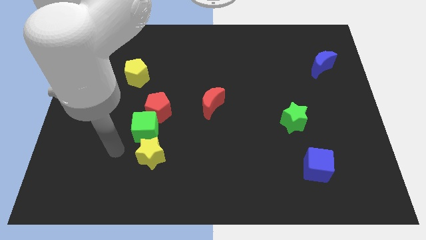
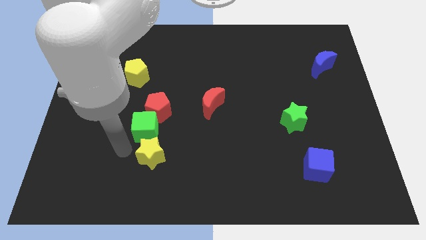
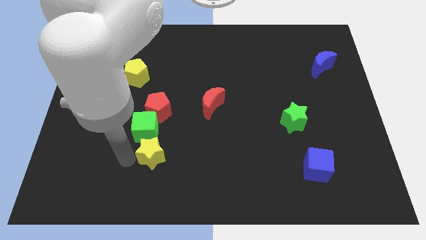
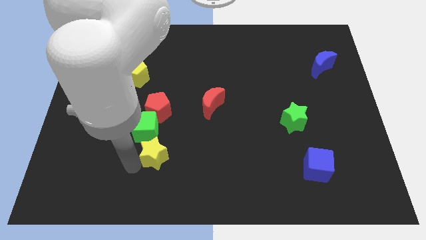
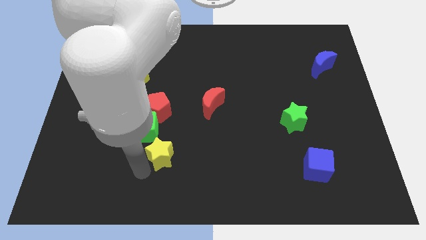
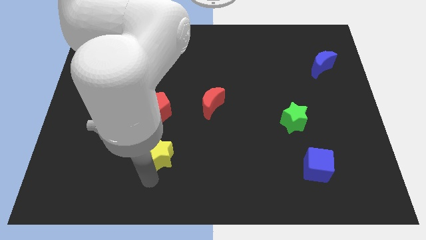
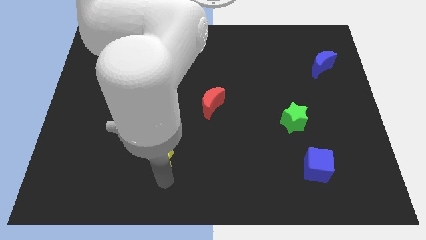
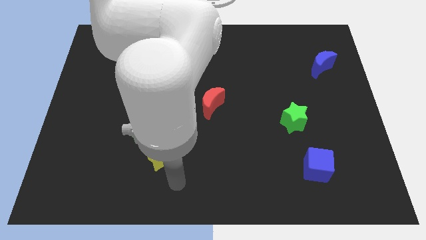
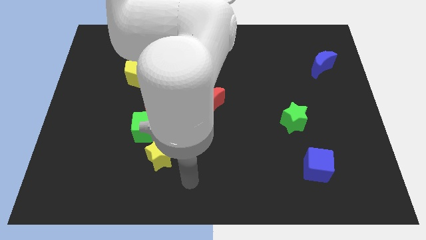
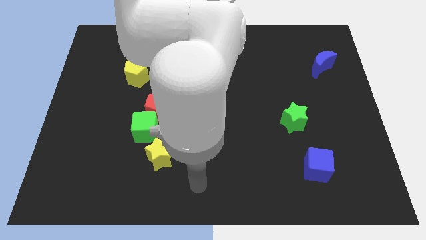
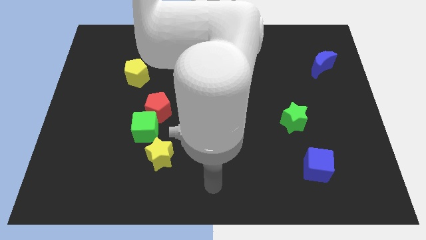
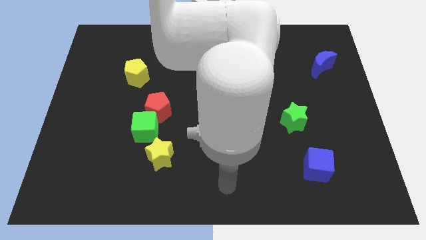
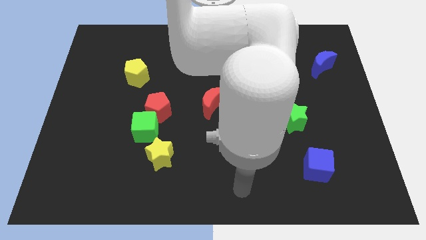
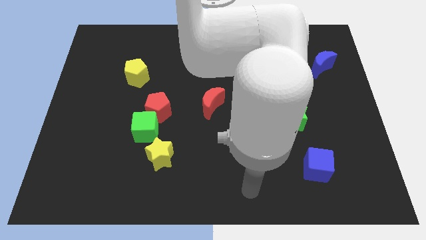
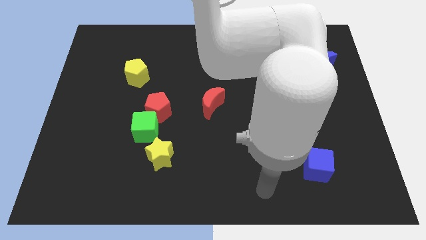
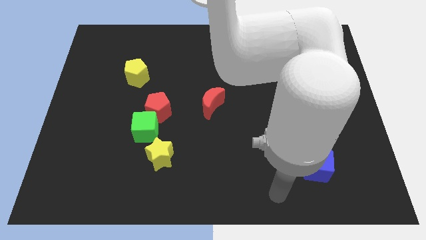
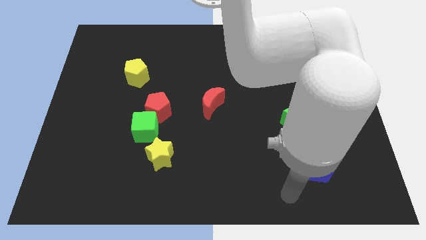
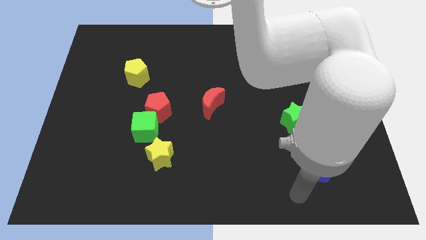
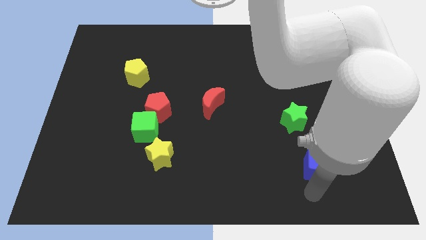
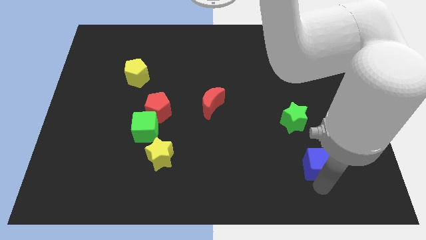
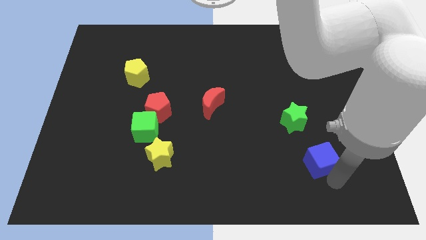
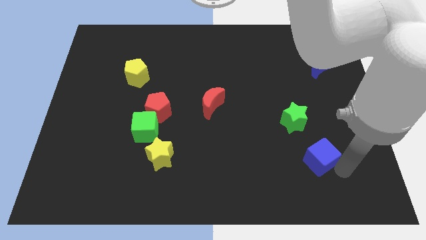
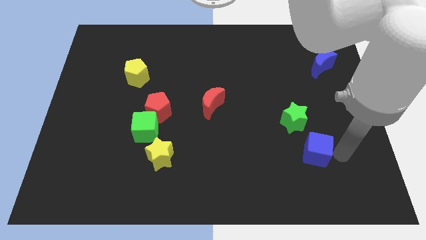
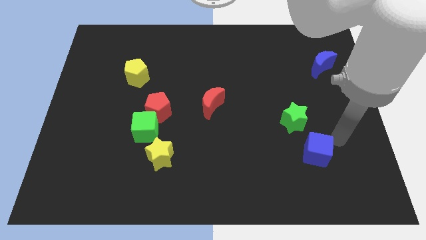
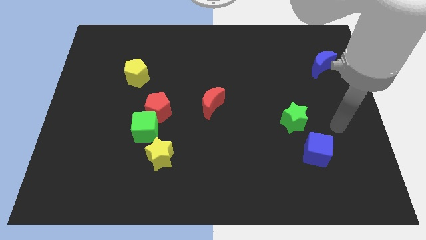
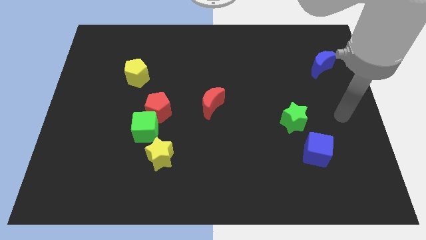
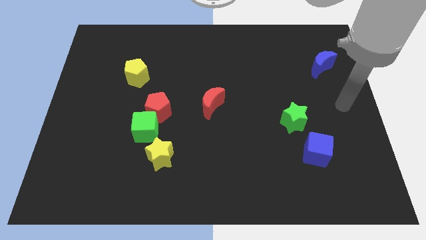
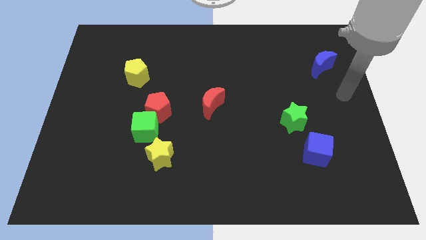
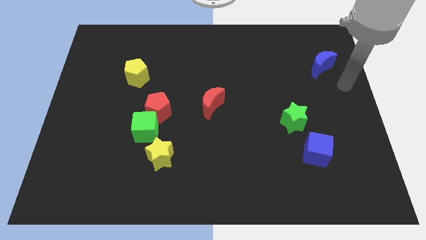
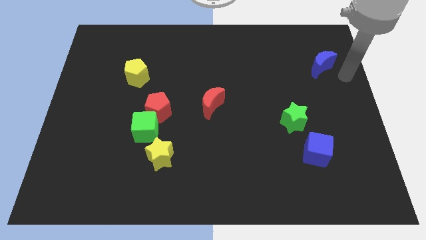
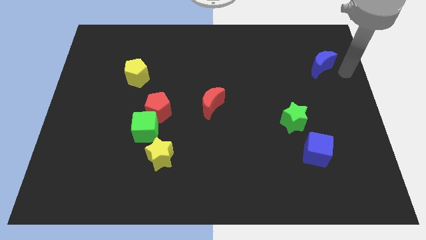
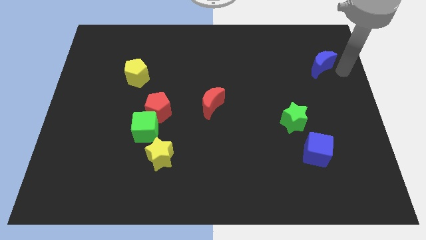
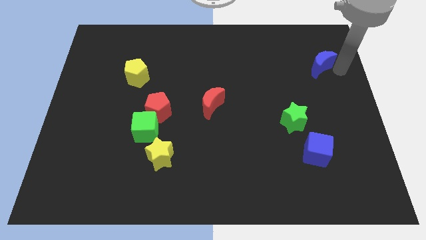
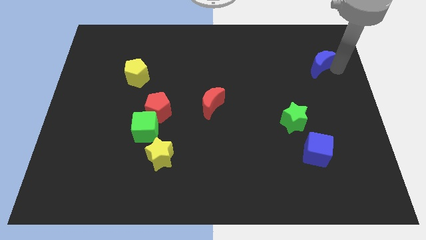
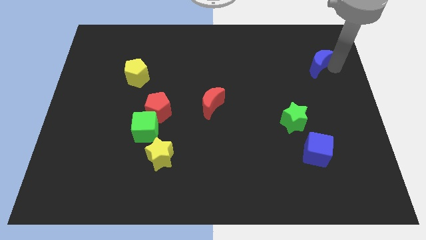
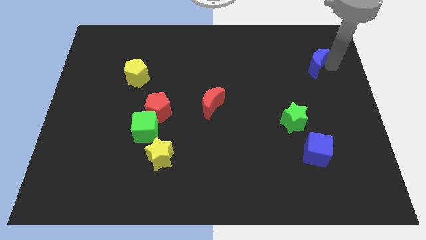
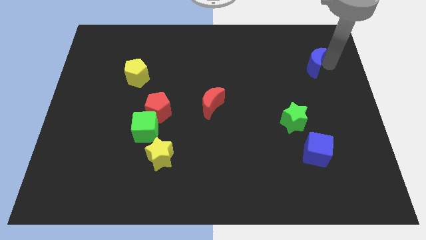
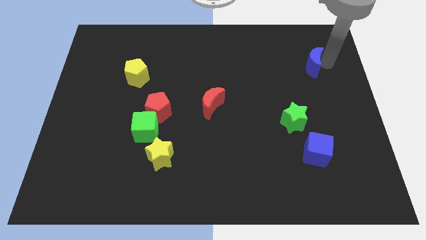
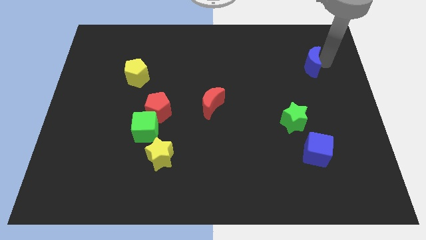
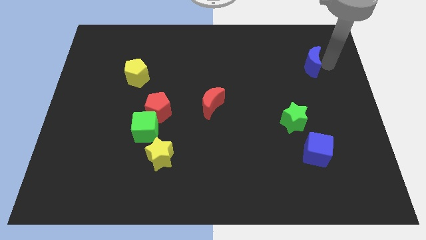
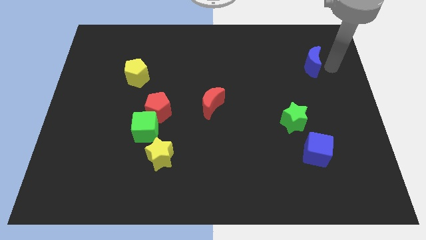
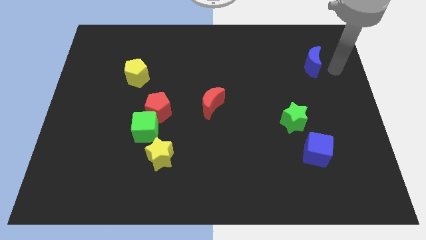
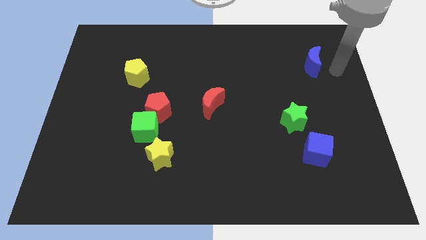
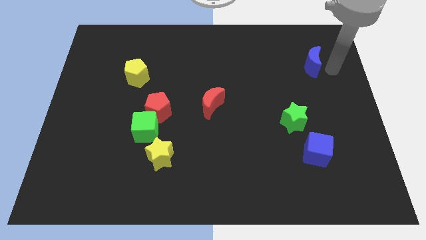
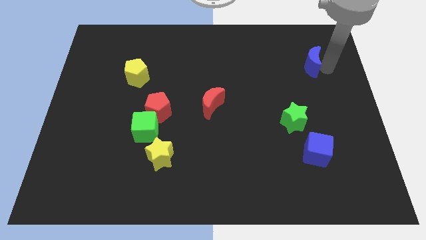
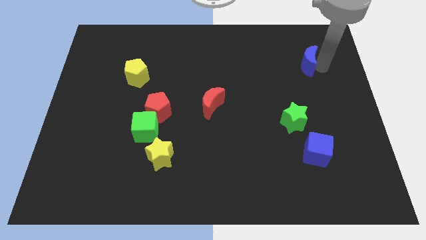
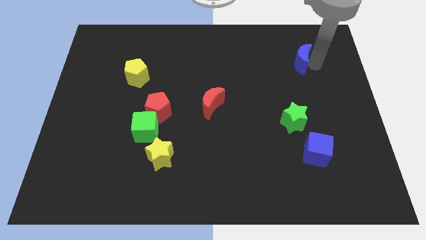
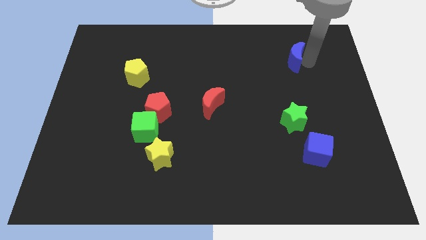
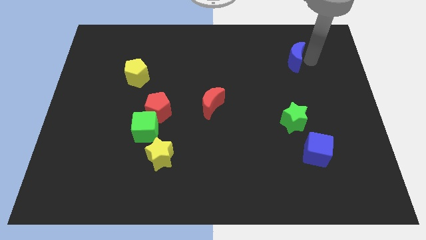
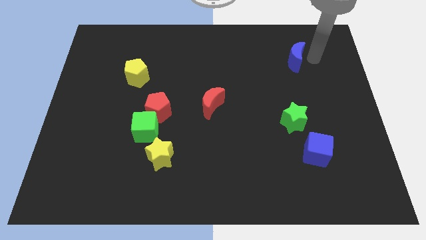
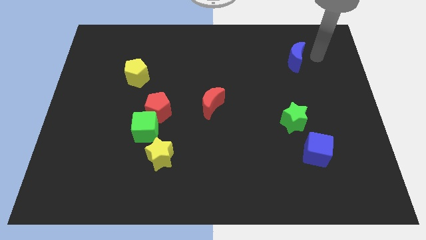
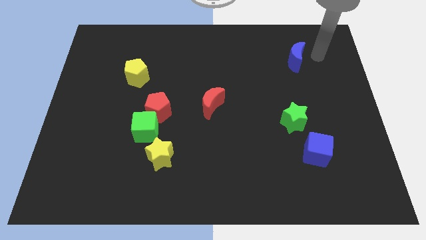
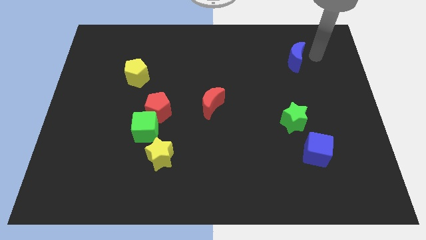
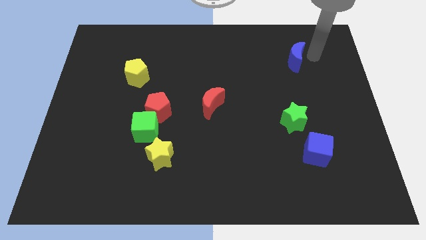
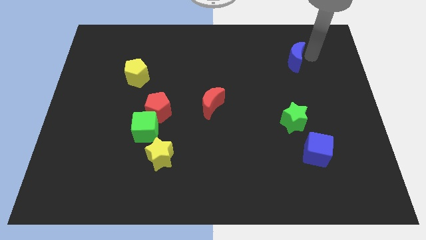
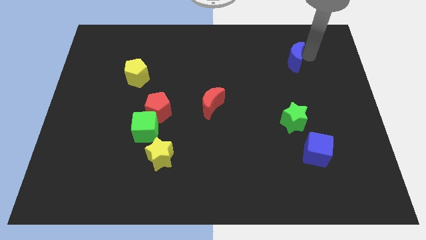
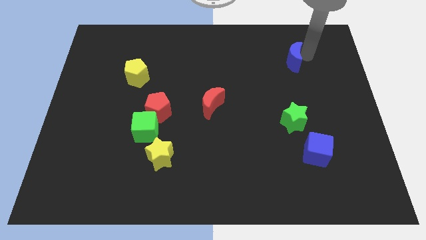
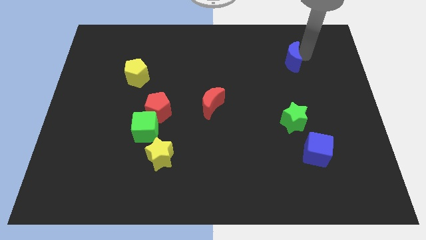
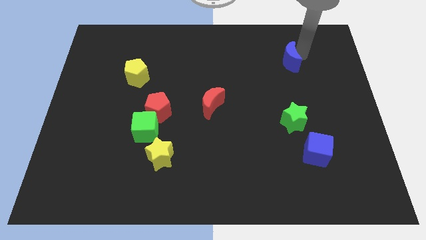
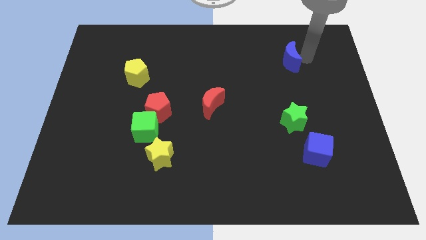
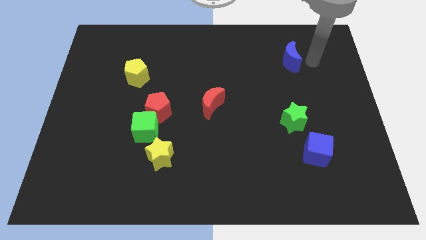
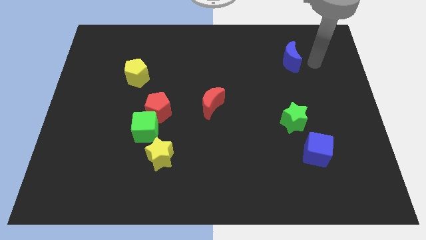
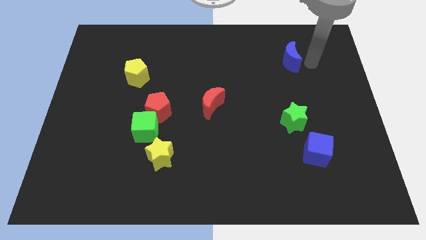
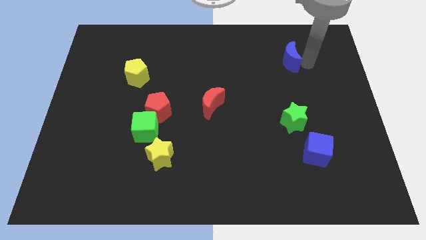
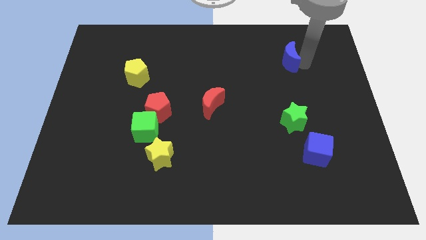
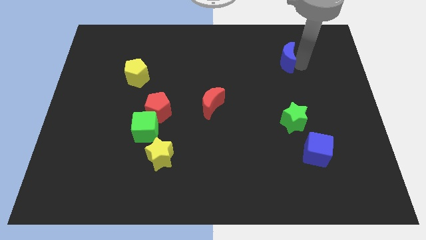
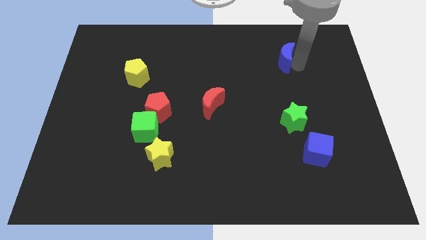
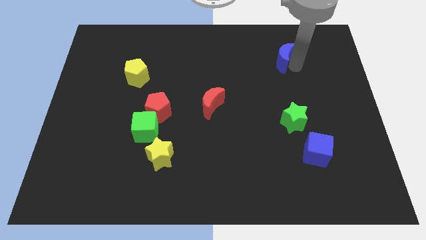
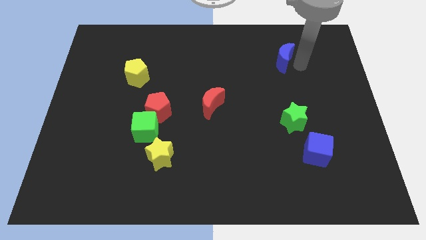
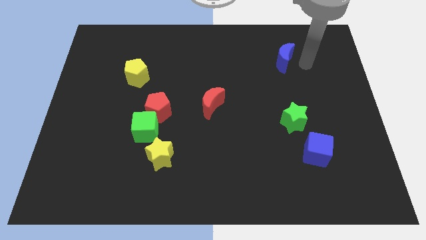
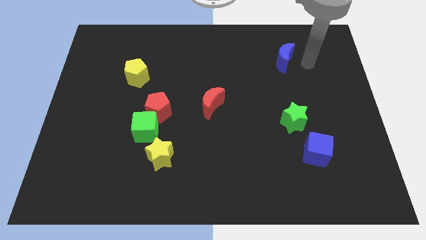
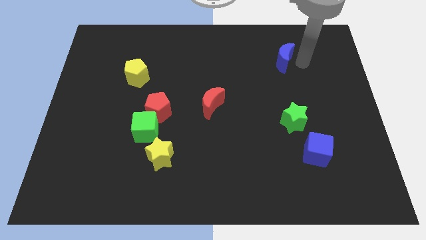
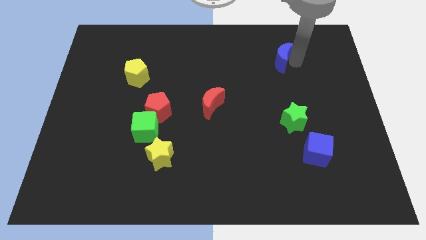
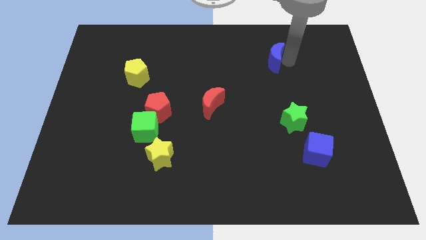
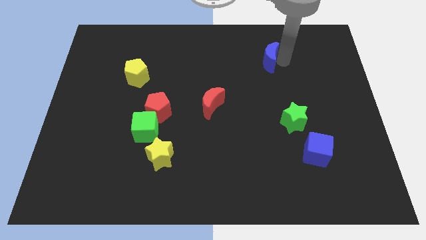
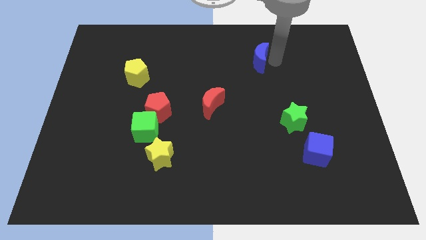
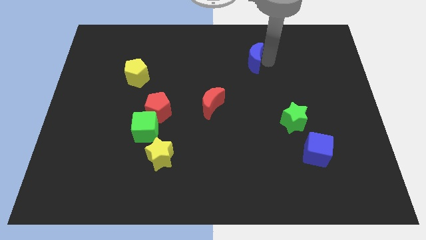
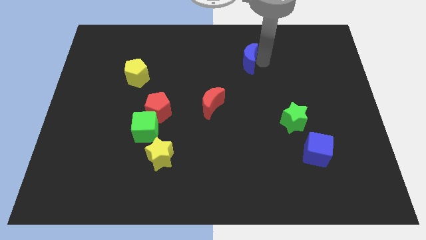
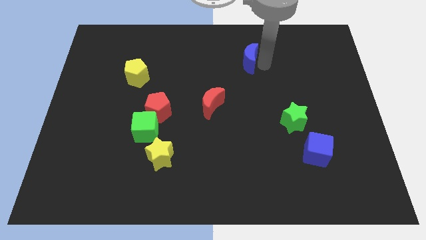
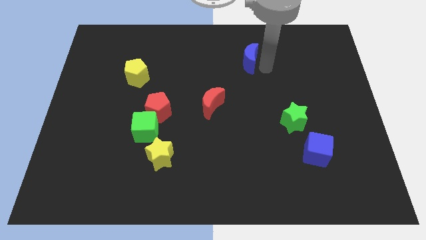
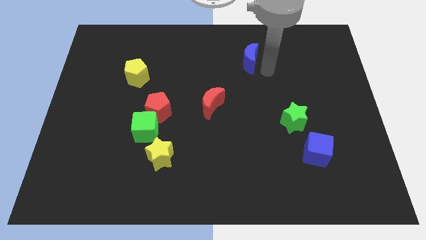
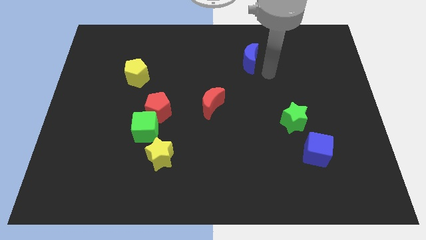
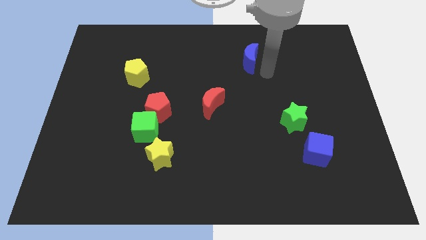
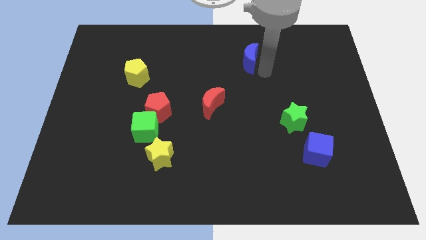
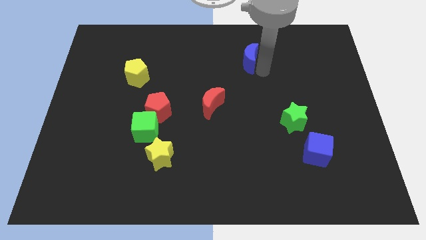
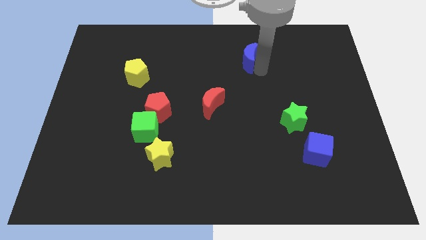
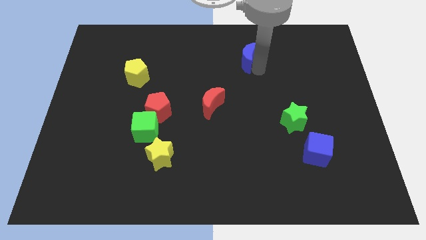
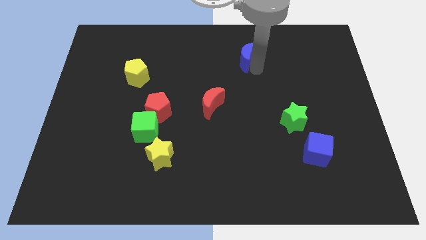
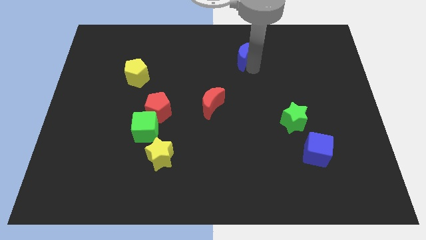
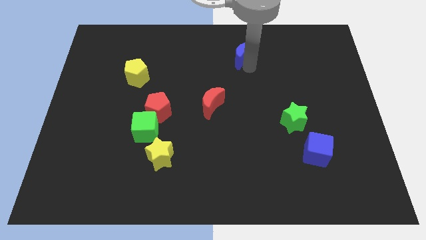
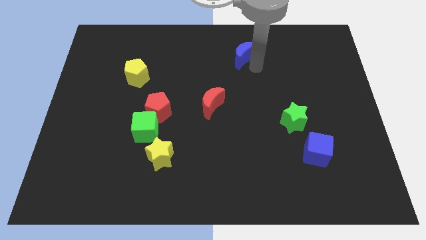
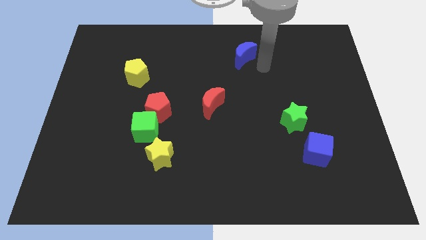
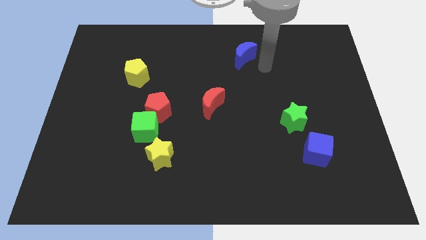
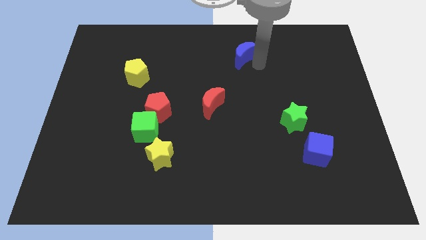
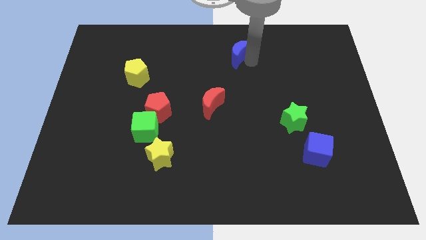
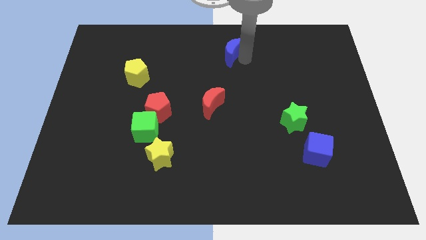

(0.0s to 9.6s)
push the blue moon to the top
